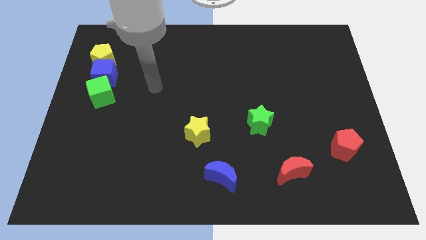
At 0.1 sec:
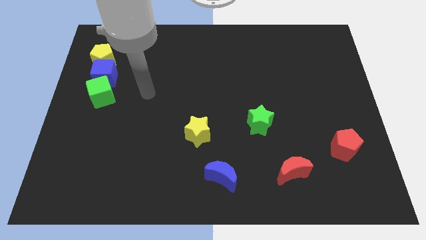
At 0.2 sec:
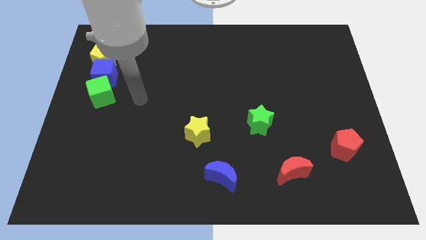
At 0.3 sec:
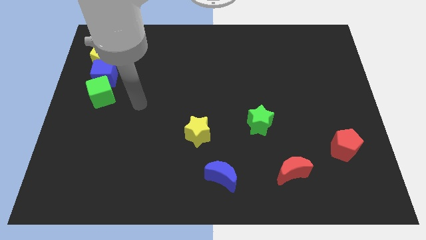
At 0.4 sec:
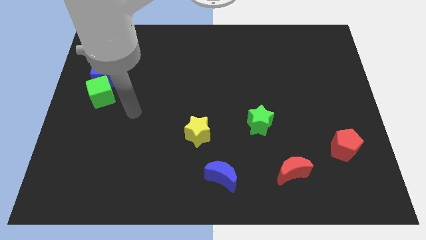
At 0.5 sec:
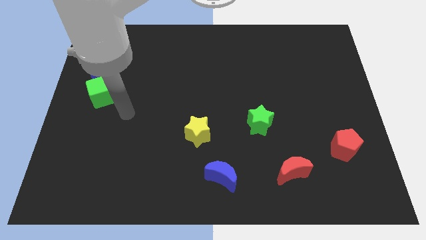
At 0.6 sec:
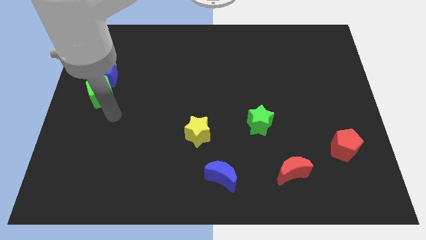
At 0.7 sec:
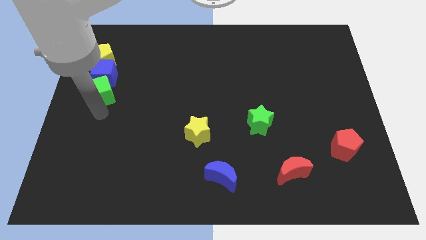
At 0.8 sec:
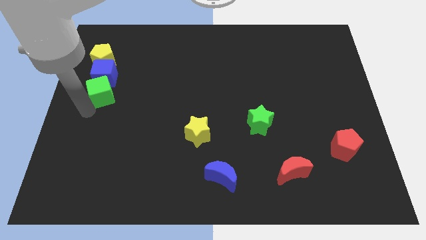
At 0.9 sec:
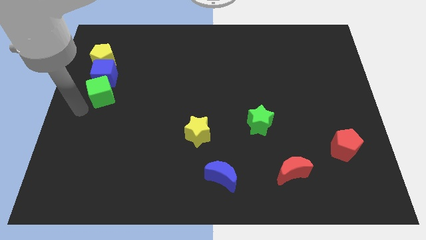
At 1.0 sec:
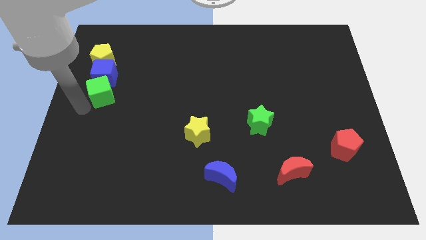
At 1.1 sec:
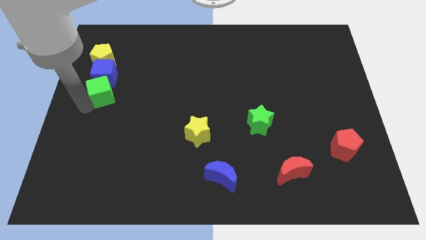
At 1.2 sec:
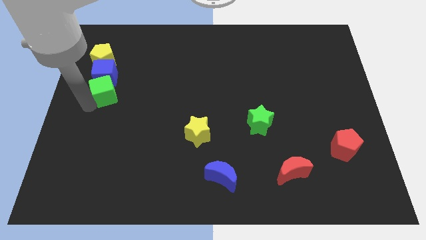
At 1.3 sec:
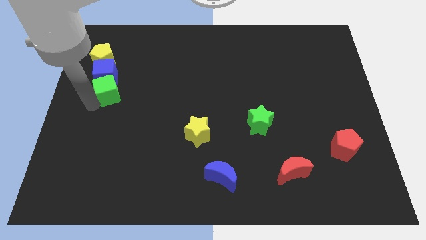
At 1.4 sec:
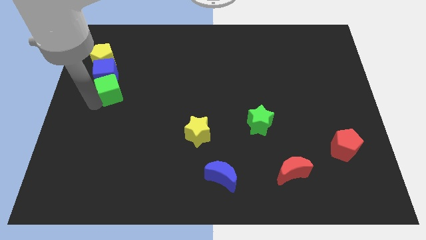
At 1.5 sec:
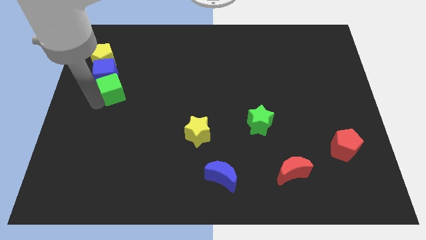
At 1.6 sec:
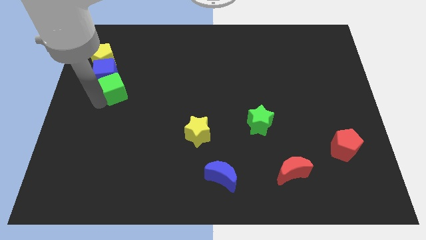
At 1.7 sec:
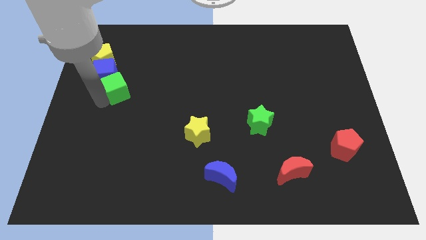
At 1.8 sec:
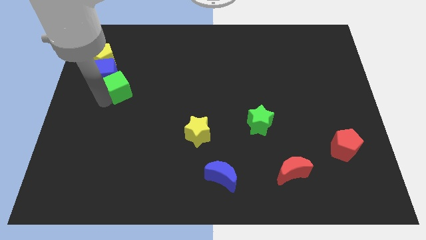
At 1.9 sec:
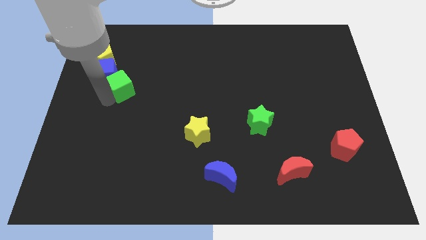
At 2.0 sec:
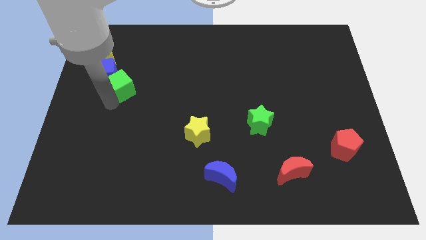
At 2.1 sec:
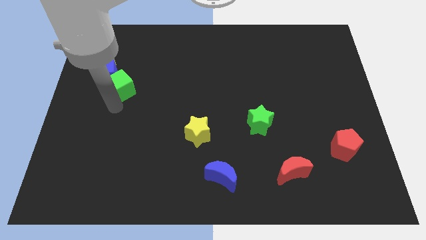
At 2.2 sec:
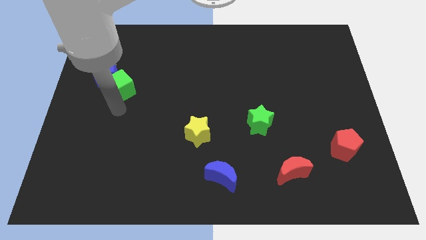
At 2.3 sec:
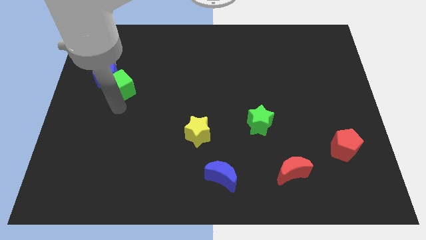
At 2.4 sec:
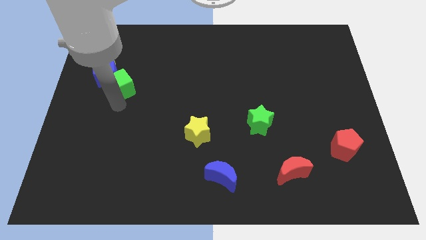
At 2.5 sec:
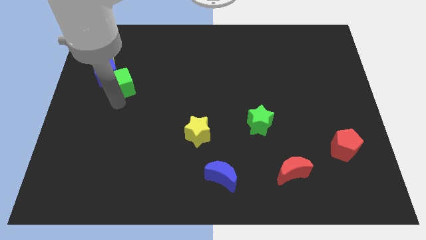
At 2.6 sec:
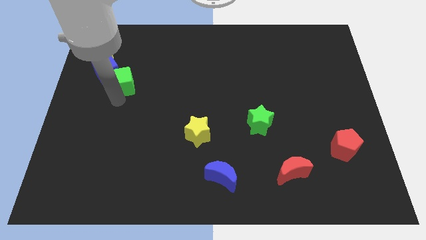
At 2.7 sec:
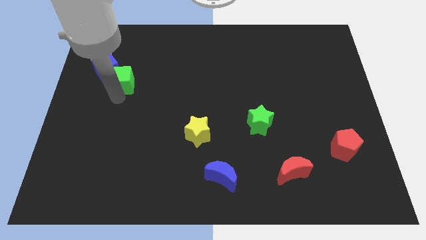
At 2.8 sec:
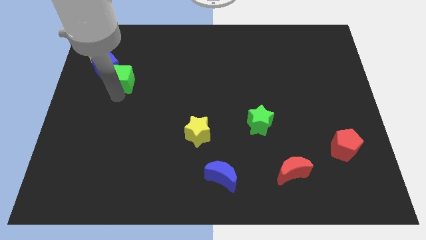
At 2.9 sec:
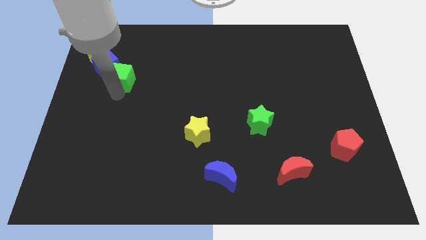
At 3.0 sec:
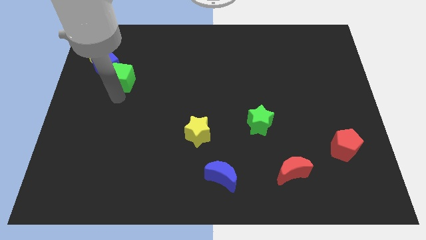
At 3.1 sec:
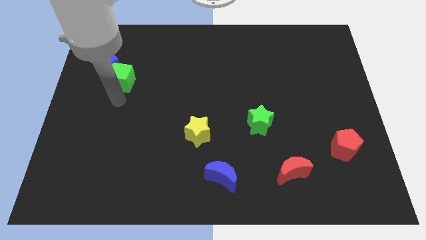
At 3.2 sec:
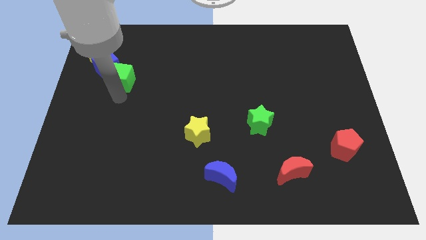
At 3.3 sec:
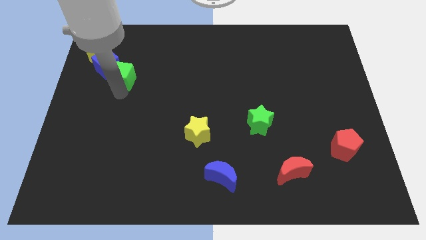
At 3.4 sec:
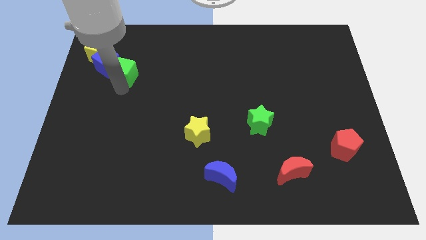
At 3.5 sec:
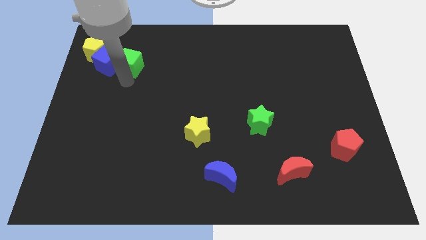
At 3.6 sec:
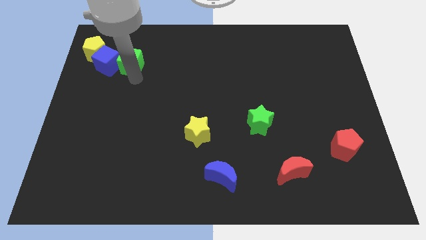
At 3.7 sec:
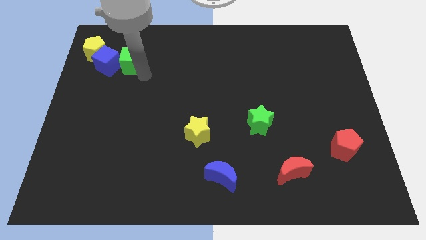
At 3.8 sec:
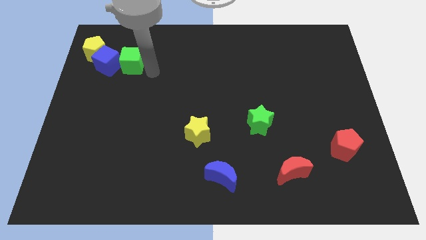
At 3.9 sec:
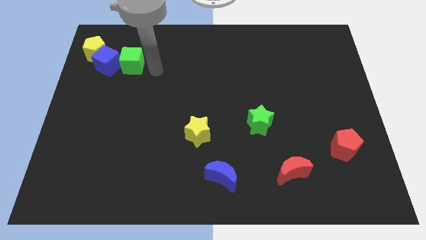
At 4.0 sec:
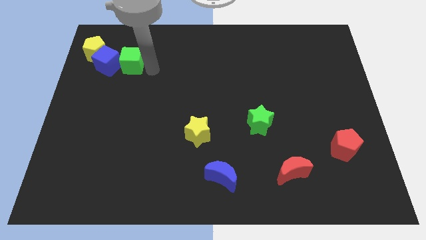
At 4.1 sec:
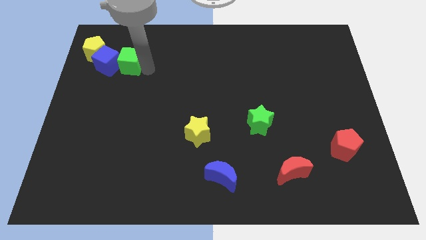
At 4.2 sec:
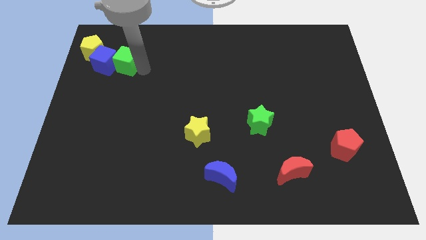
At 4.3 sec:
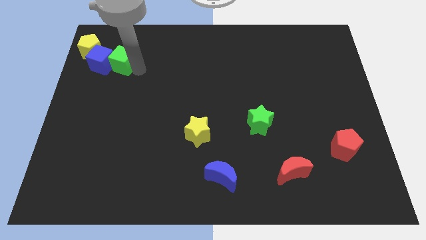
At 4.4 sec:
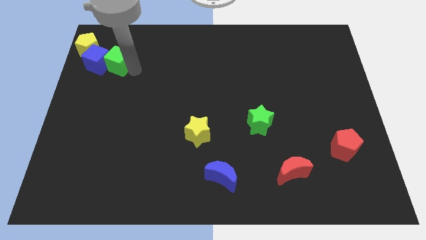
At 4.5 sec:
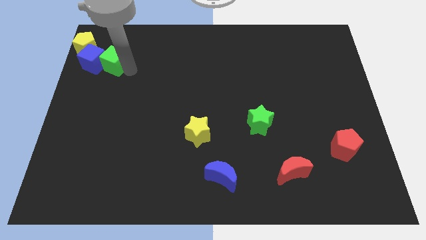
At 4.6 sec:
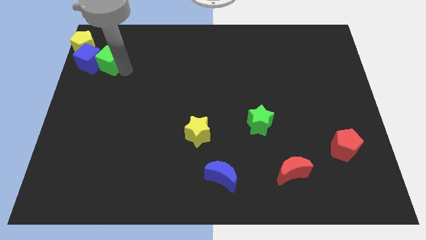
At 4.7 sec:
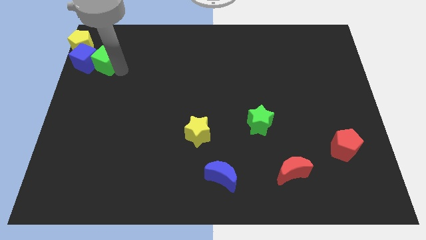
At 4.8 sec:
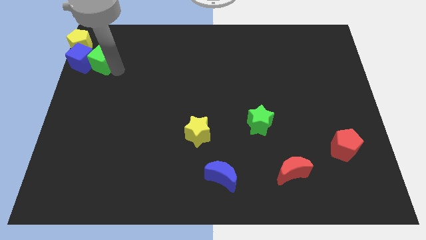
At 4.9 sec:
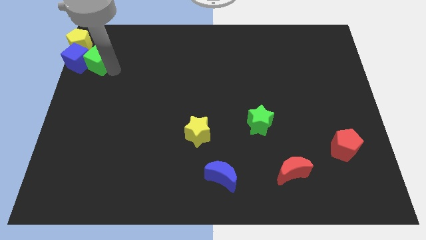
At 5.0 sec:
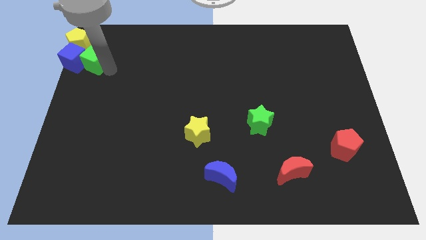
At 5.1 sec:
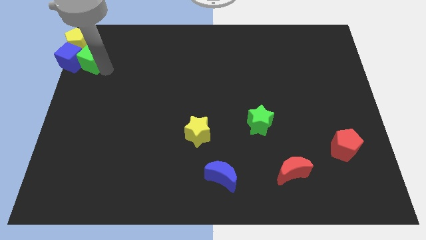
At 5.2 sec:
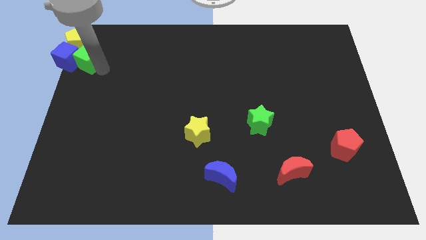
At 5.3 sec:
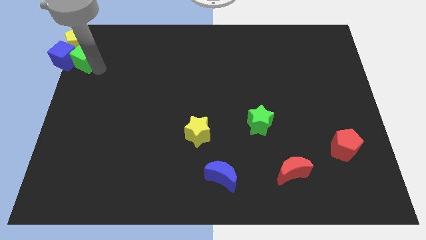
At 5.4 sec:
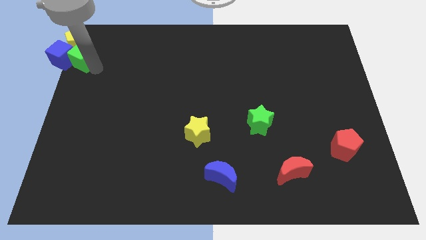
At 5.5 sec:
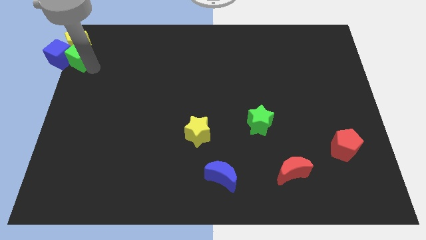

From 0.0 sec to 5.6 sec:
put the green cube to the yellow pentagon

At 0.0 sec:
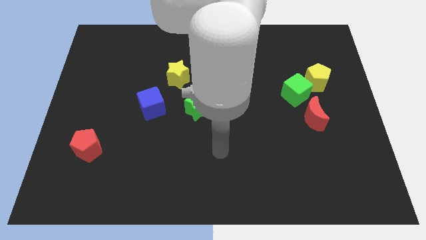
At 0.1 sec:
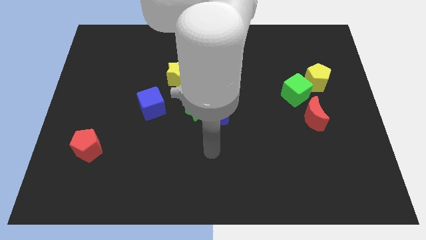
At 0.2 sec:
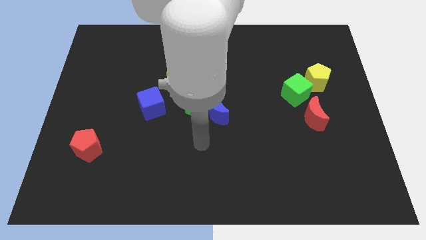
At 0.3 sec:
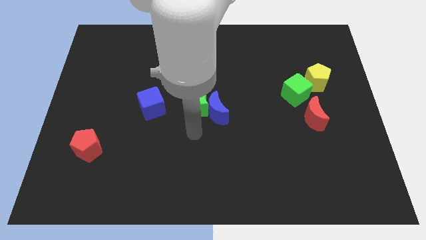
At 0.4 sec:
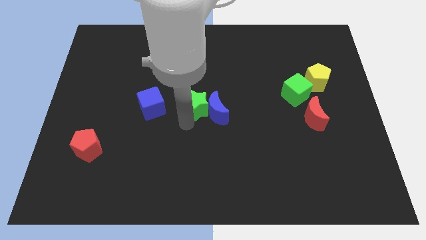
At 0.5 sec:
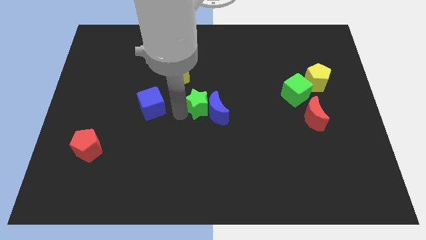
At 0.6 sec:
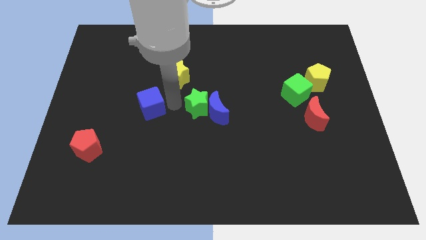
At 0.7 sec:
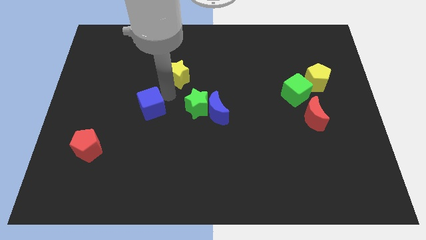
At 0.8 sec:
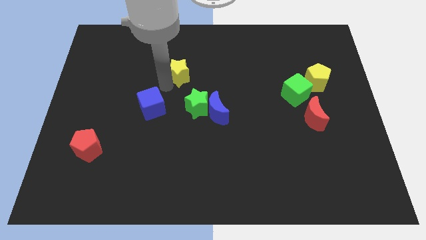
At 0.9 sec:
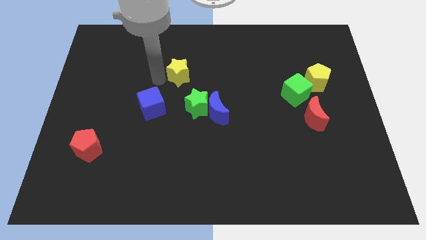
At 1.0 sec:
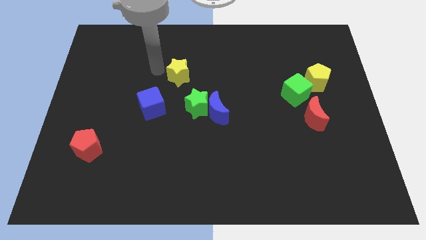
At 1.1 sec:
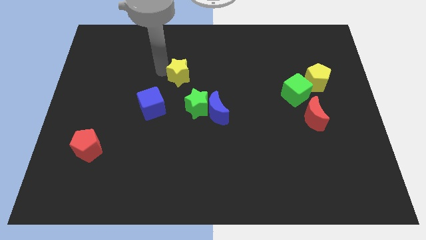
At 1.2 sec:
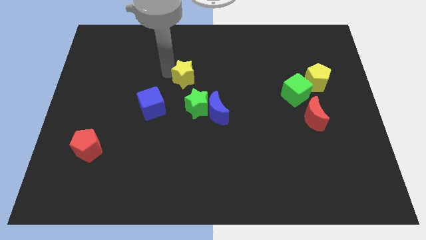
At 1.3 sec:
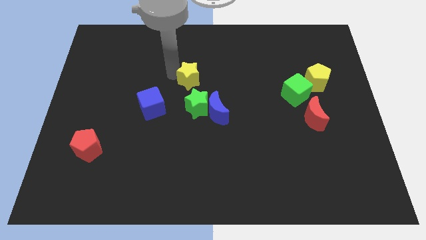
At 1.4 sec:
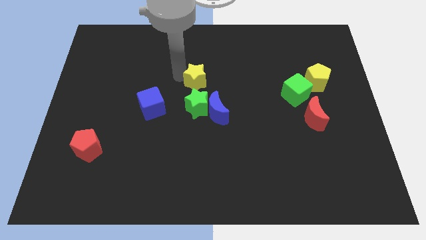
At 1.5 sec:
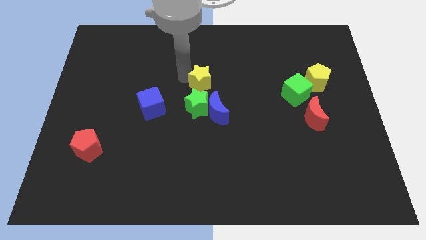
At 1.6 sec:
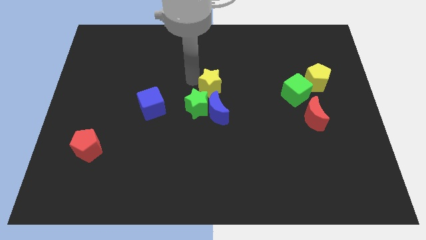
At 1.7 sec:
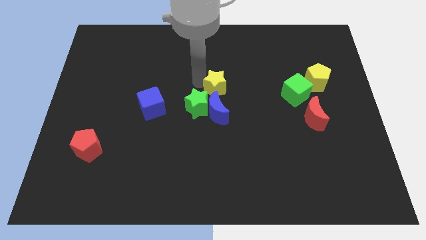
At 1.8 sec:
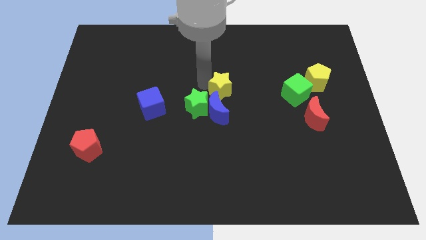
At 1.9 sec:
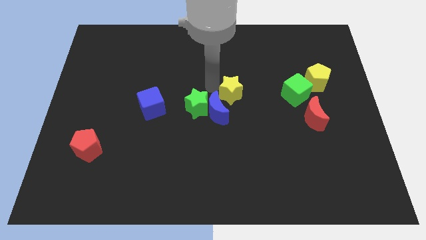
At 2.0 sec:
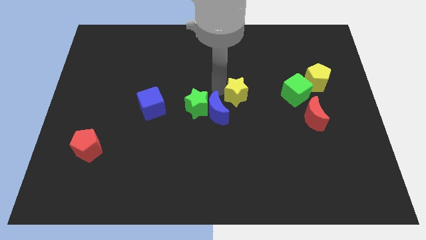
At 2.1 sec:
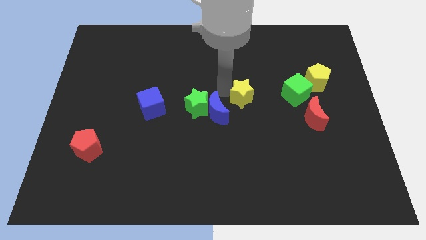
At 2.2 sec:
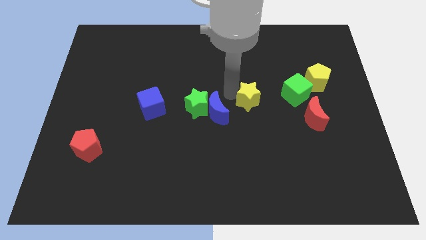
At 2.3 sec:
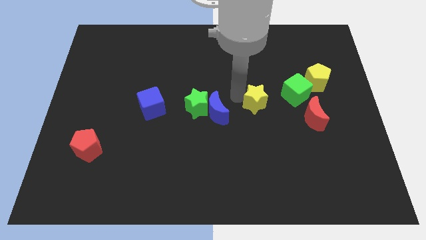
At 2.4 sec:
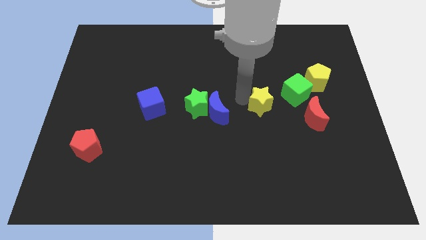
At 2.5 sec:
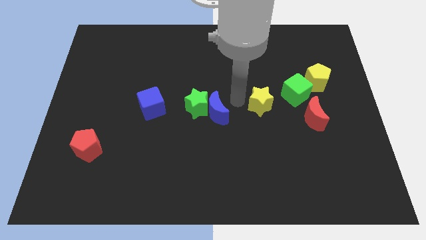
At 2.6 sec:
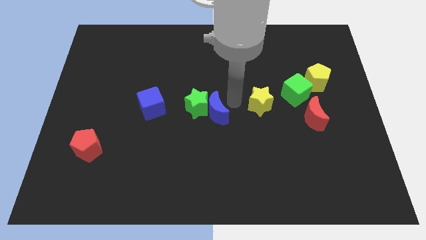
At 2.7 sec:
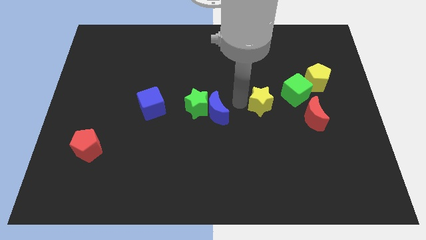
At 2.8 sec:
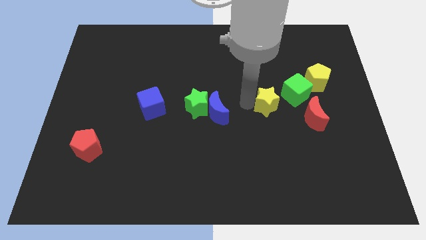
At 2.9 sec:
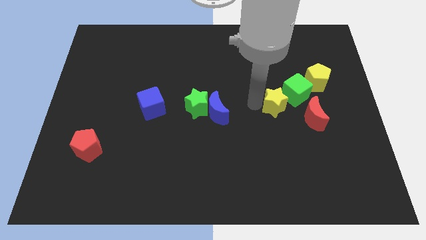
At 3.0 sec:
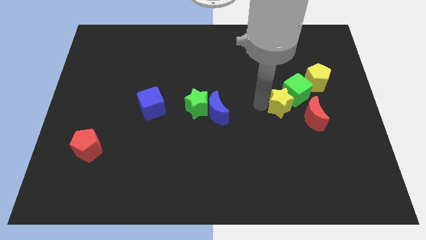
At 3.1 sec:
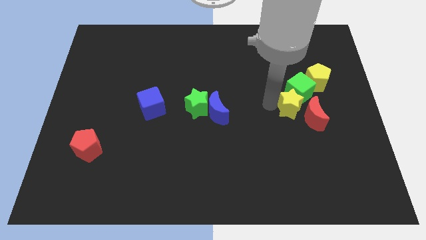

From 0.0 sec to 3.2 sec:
move the yellow star next to the red moon
